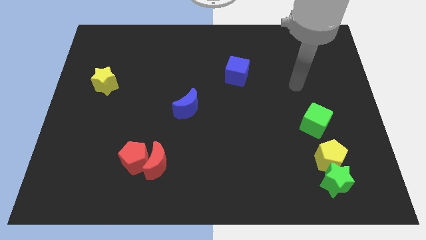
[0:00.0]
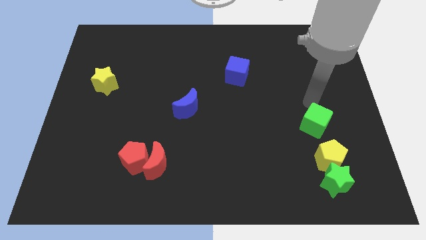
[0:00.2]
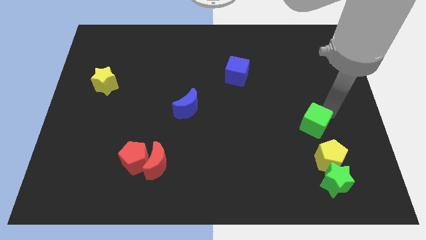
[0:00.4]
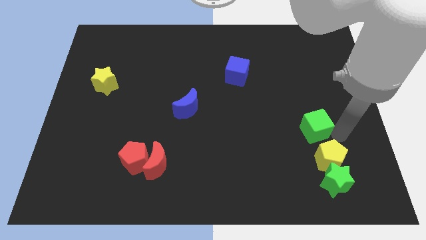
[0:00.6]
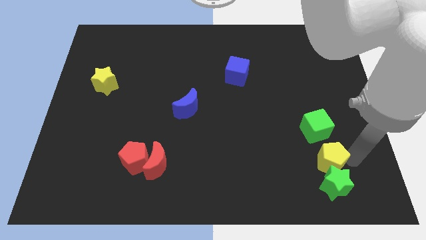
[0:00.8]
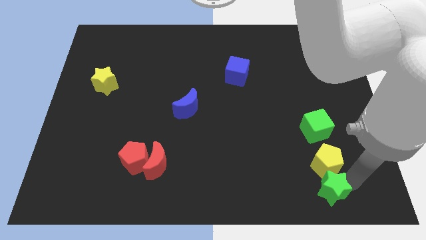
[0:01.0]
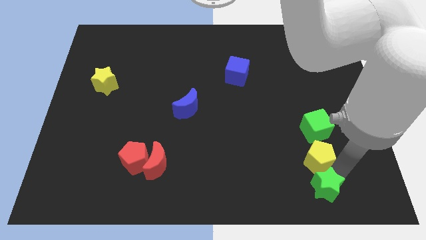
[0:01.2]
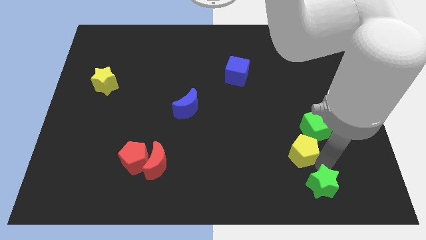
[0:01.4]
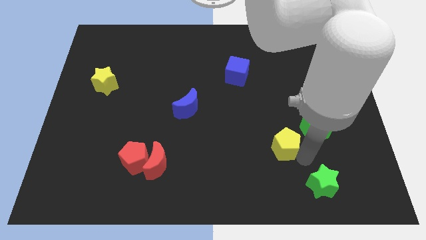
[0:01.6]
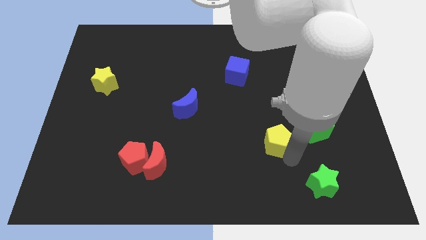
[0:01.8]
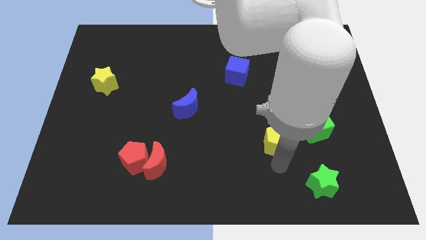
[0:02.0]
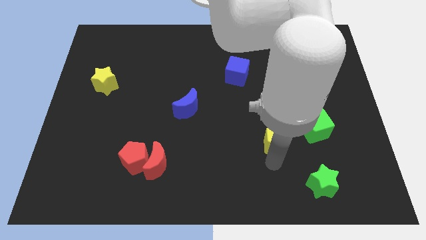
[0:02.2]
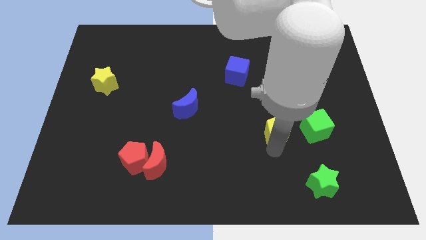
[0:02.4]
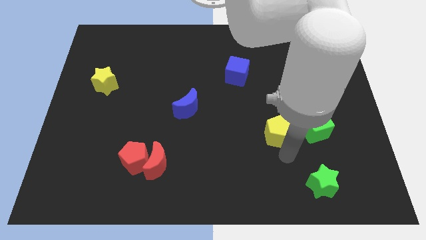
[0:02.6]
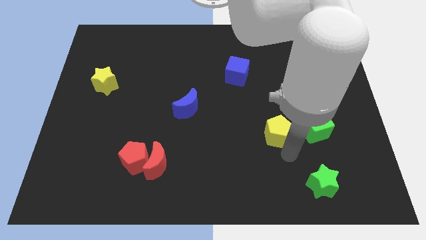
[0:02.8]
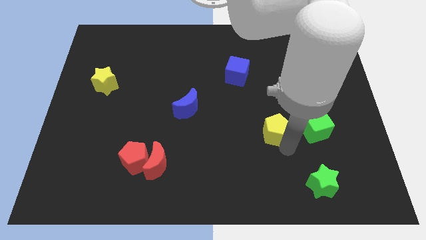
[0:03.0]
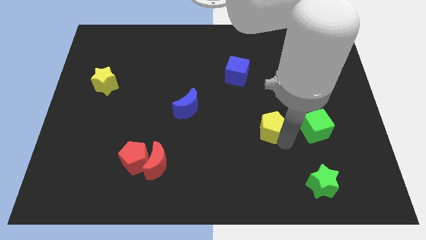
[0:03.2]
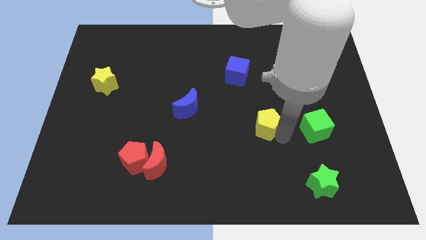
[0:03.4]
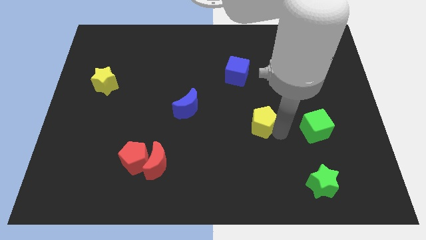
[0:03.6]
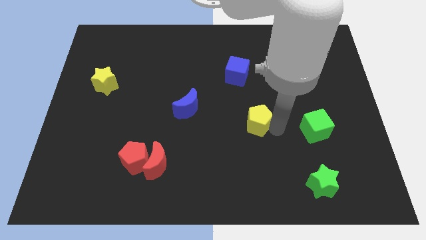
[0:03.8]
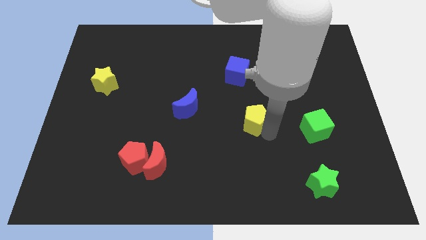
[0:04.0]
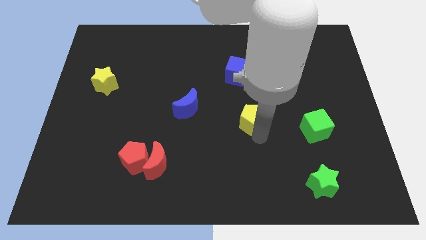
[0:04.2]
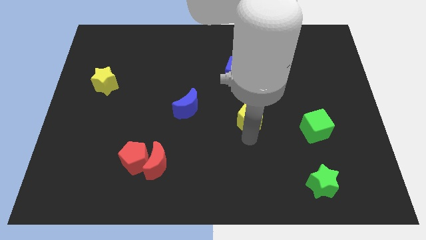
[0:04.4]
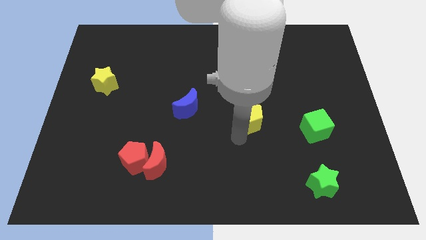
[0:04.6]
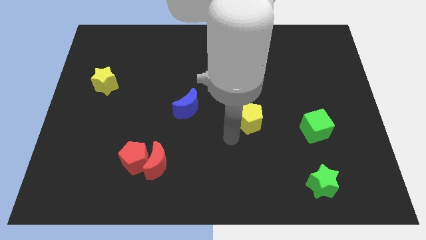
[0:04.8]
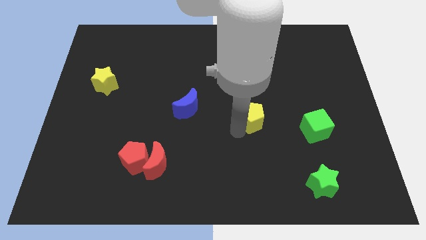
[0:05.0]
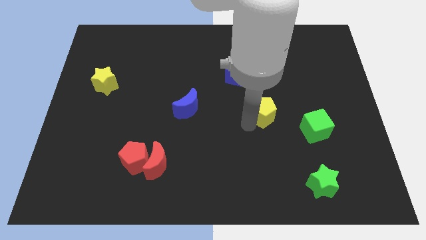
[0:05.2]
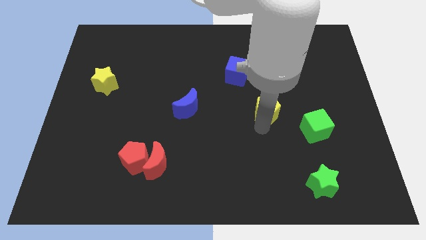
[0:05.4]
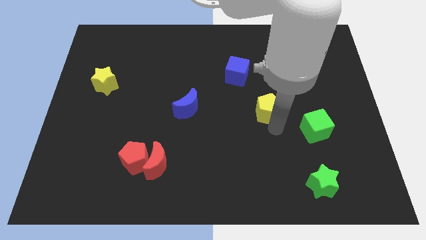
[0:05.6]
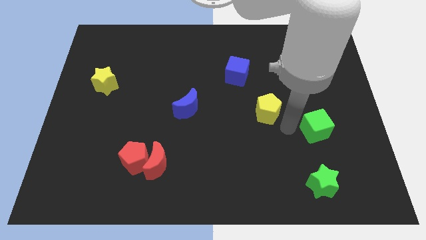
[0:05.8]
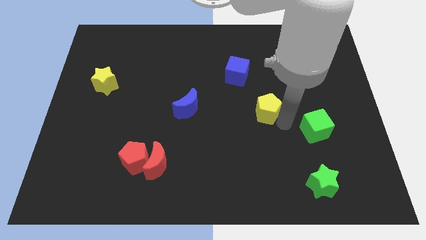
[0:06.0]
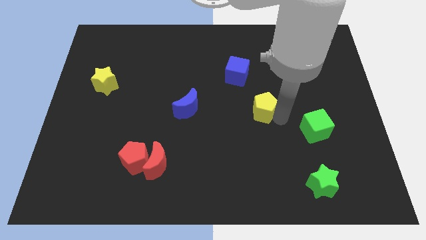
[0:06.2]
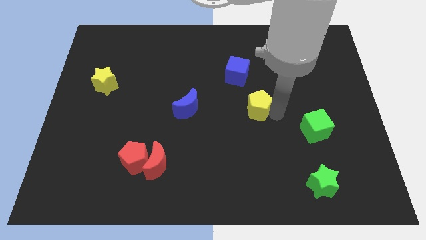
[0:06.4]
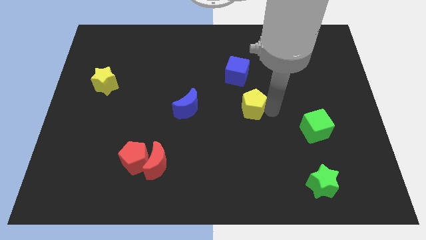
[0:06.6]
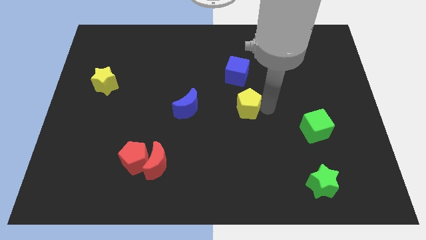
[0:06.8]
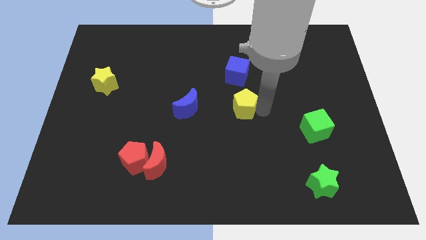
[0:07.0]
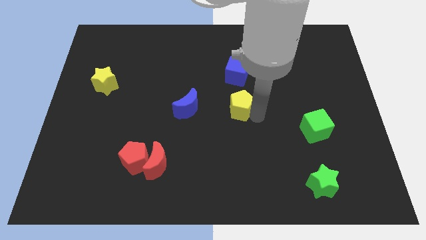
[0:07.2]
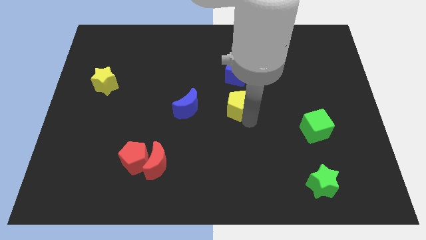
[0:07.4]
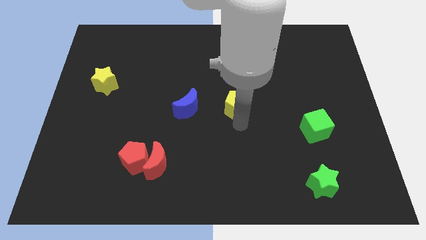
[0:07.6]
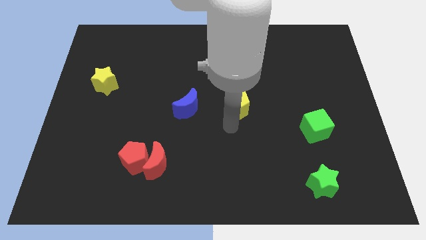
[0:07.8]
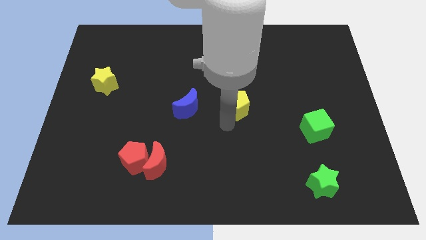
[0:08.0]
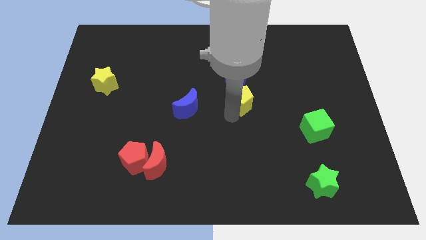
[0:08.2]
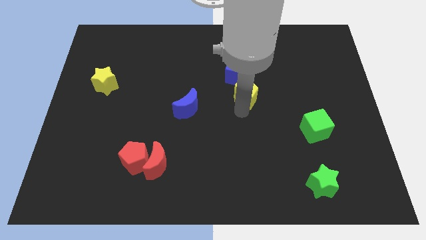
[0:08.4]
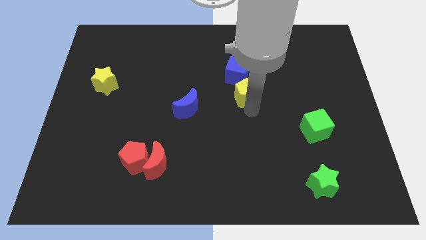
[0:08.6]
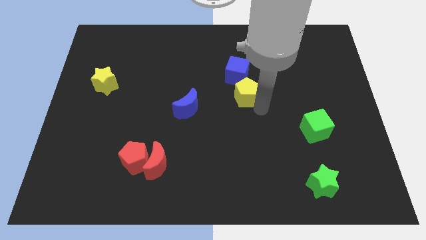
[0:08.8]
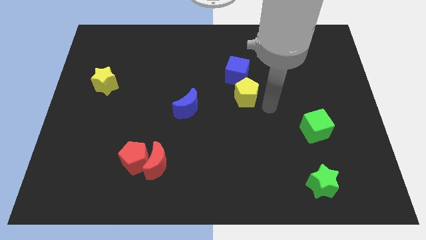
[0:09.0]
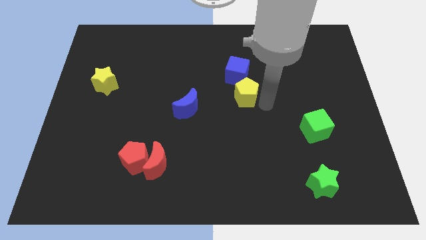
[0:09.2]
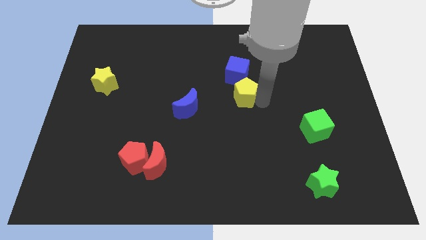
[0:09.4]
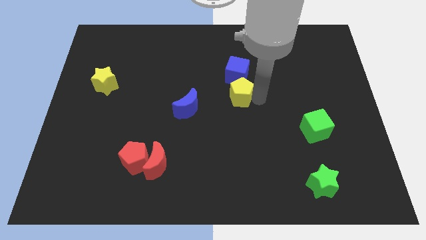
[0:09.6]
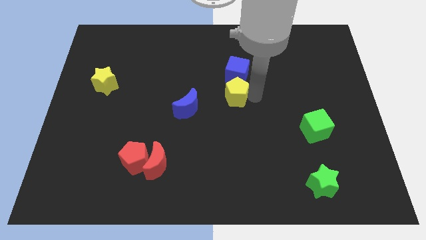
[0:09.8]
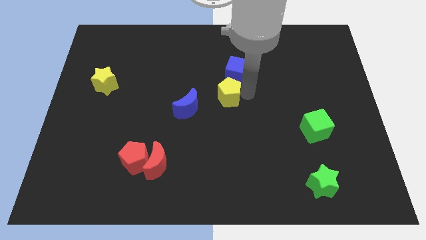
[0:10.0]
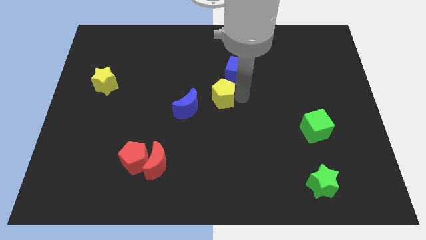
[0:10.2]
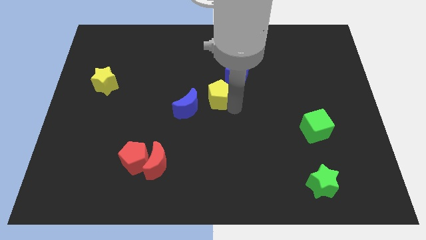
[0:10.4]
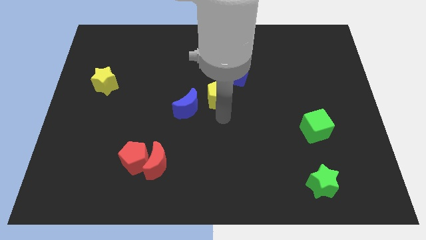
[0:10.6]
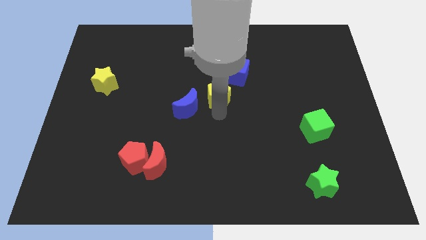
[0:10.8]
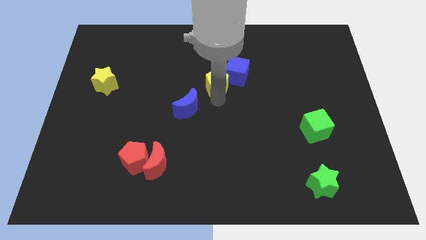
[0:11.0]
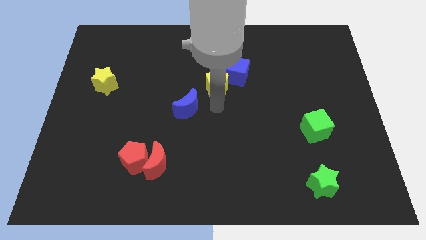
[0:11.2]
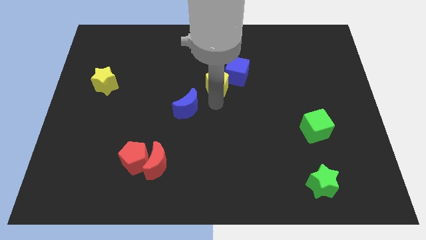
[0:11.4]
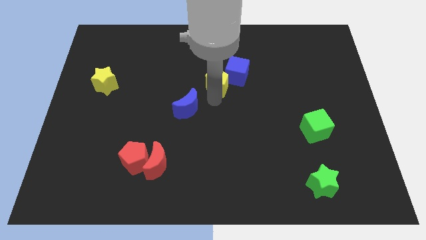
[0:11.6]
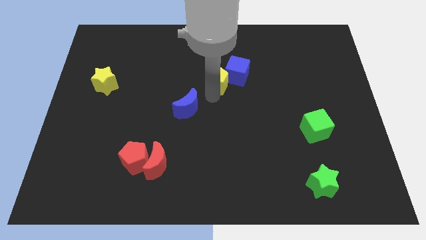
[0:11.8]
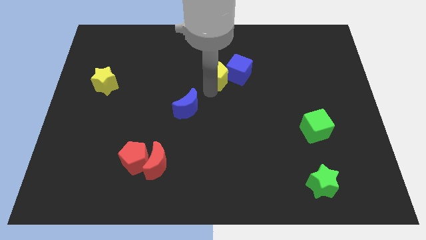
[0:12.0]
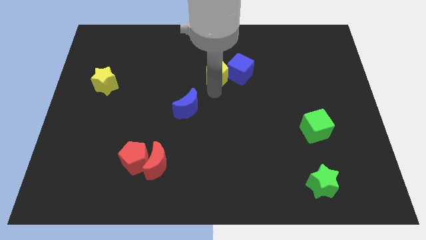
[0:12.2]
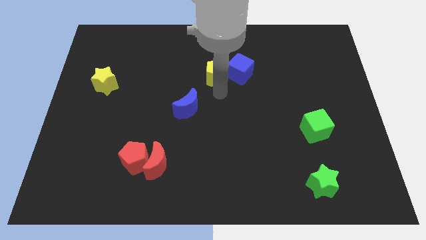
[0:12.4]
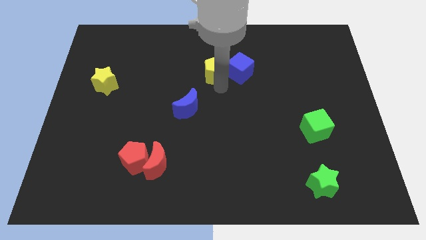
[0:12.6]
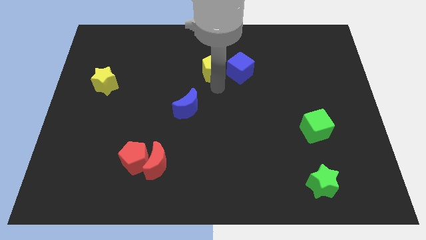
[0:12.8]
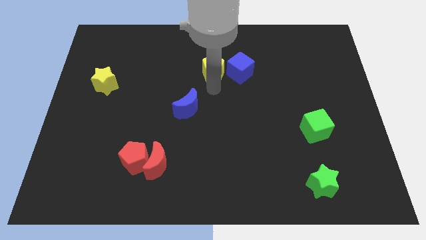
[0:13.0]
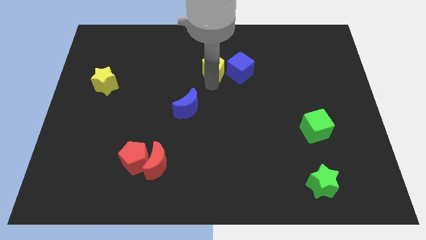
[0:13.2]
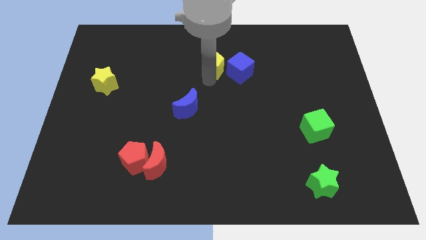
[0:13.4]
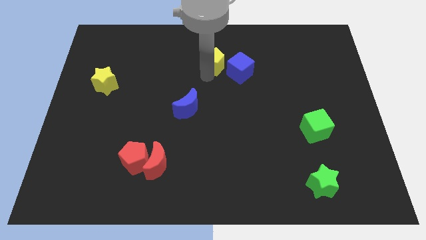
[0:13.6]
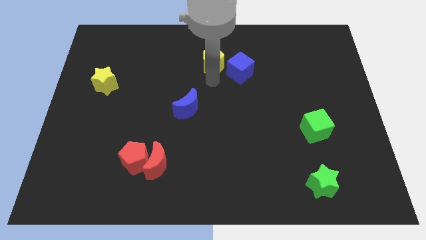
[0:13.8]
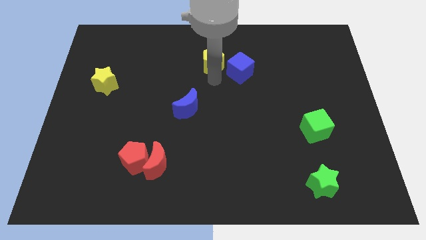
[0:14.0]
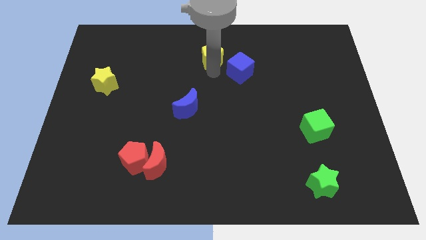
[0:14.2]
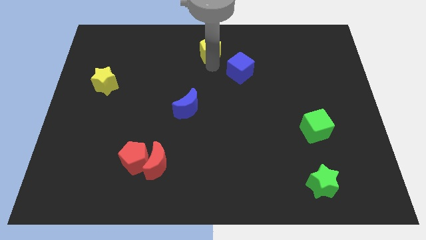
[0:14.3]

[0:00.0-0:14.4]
push the yellow pentagon to the top
